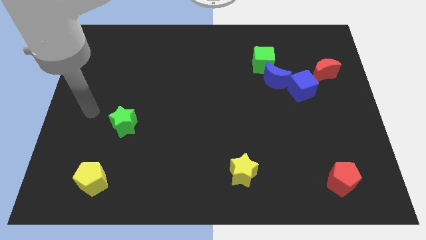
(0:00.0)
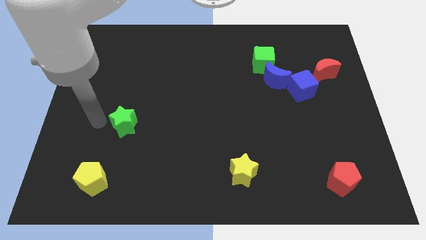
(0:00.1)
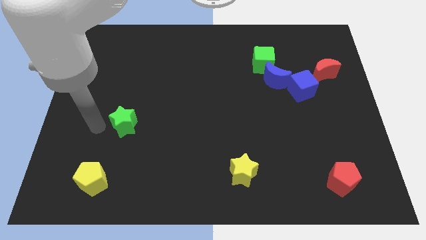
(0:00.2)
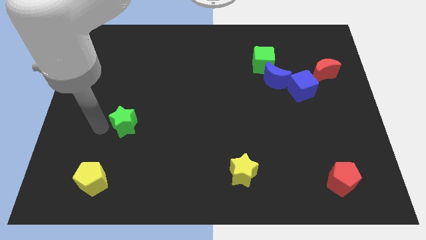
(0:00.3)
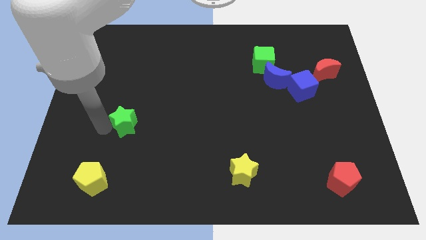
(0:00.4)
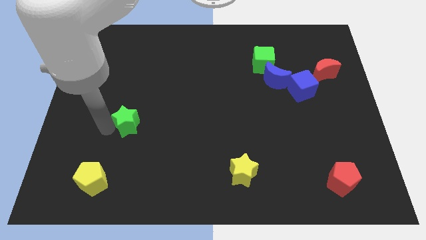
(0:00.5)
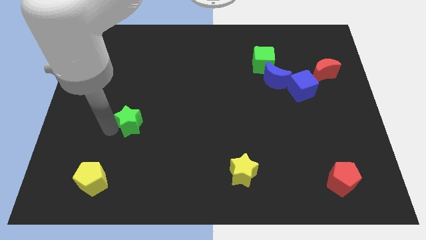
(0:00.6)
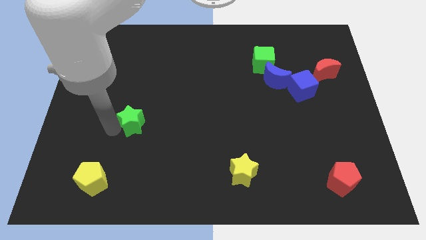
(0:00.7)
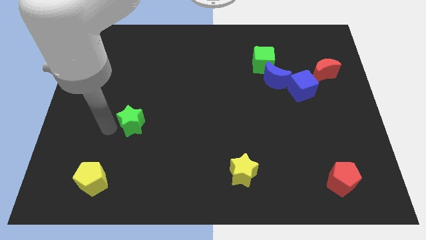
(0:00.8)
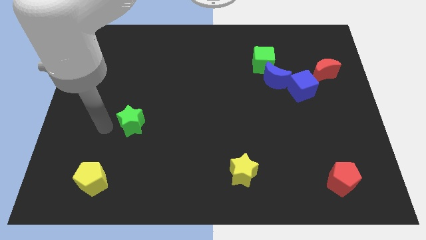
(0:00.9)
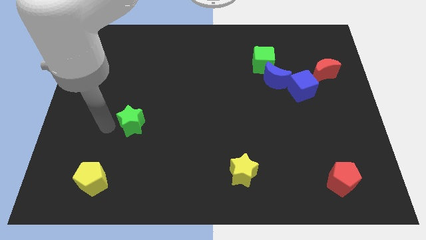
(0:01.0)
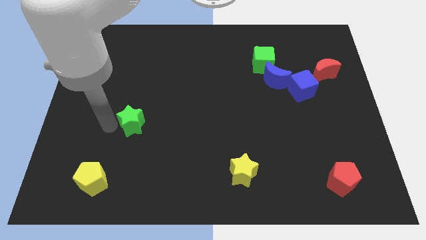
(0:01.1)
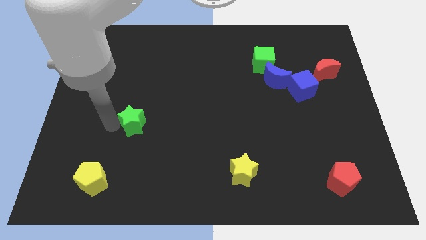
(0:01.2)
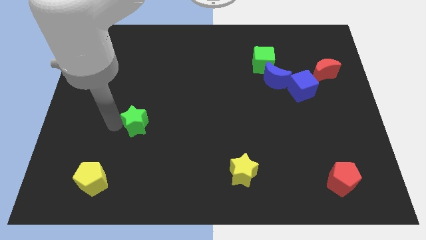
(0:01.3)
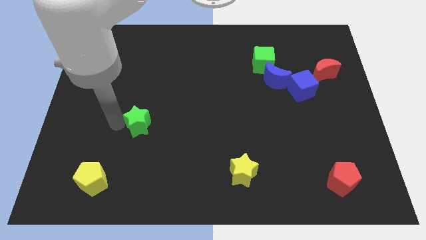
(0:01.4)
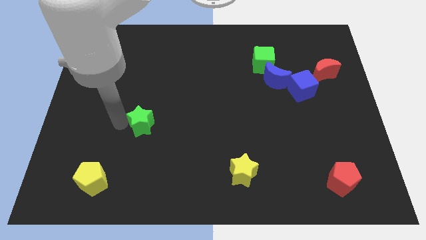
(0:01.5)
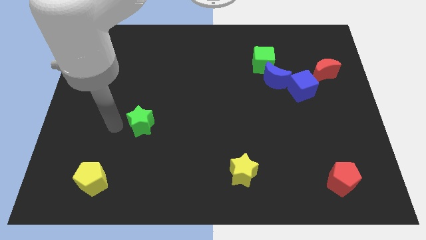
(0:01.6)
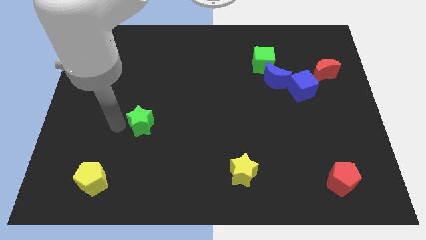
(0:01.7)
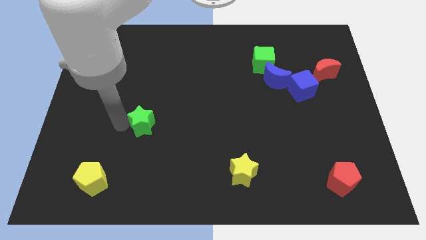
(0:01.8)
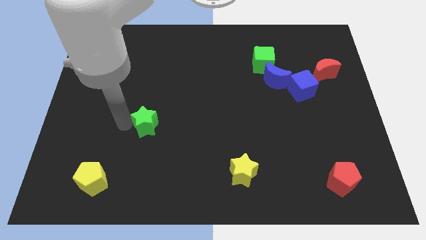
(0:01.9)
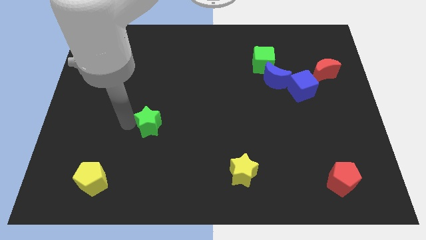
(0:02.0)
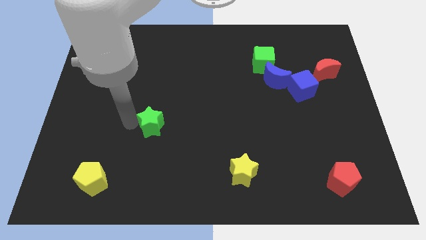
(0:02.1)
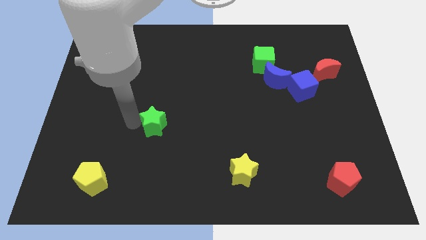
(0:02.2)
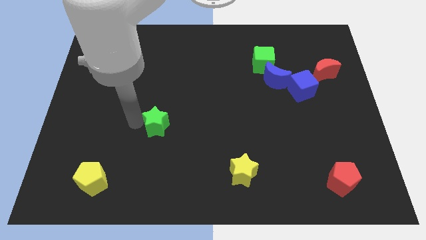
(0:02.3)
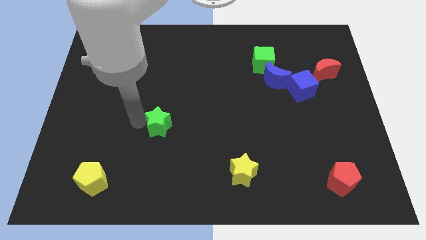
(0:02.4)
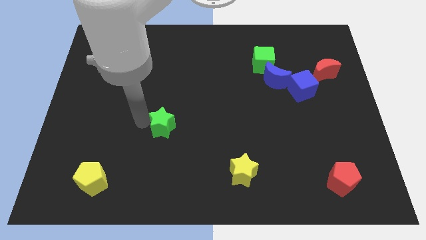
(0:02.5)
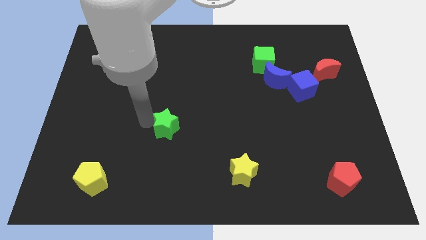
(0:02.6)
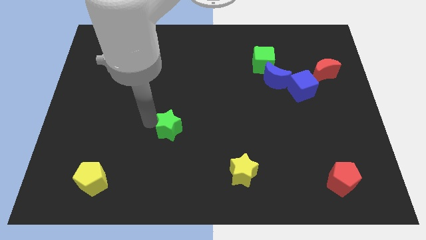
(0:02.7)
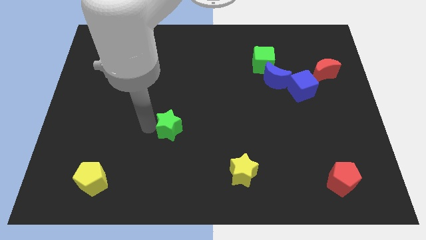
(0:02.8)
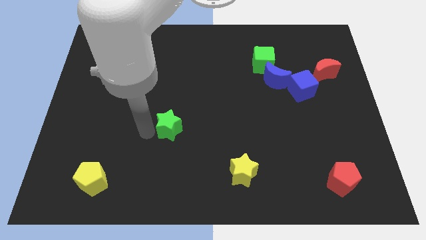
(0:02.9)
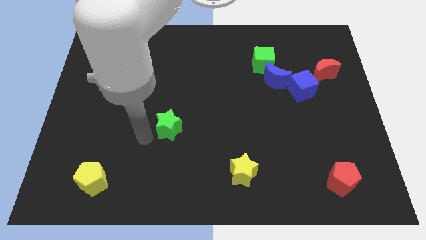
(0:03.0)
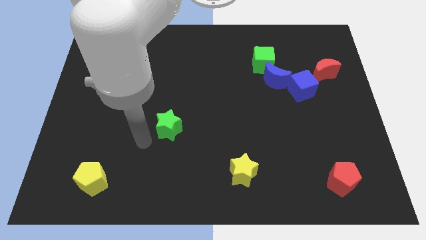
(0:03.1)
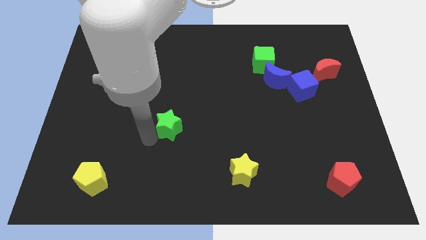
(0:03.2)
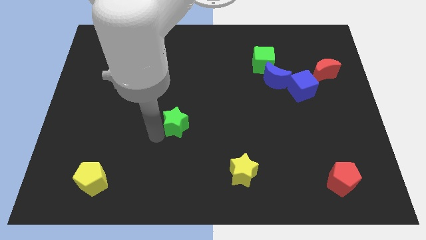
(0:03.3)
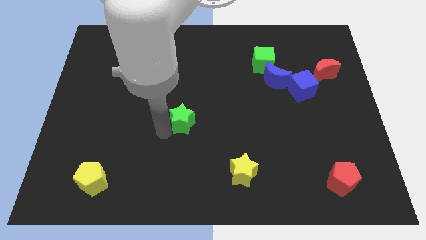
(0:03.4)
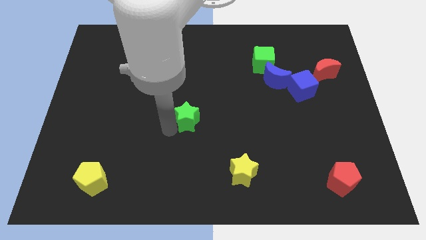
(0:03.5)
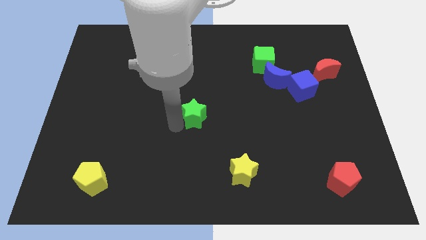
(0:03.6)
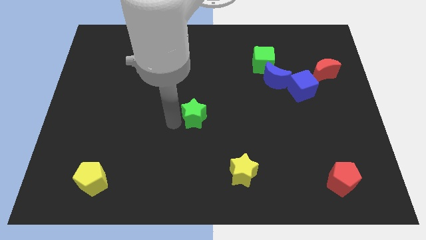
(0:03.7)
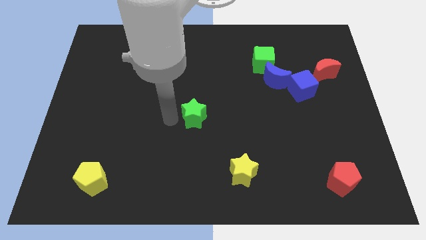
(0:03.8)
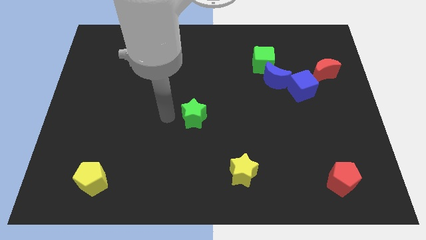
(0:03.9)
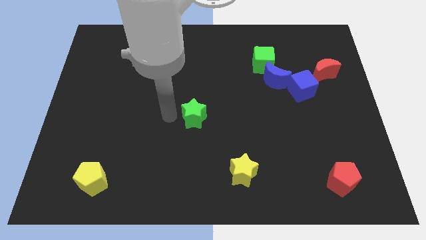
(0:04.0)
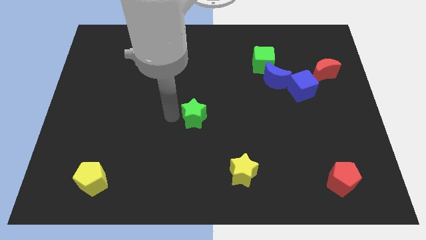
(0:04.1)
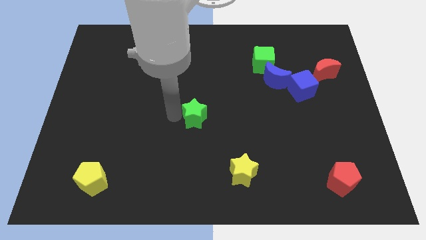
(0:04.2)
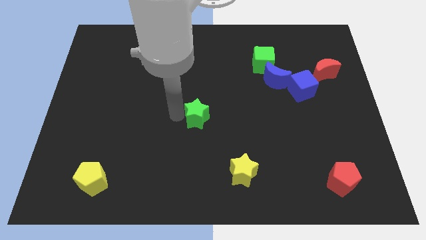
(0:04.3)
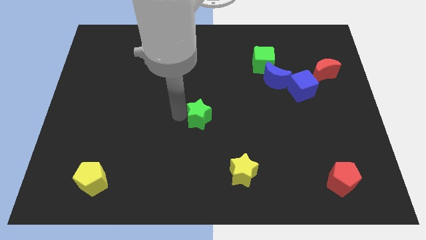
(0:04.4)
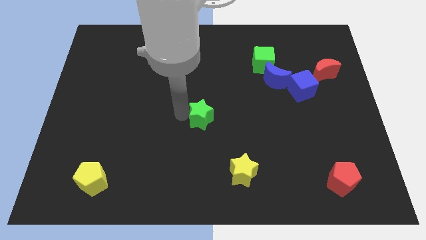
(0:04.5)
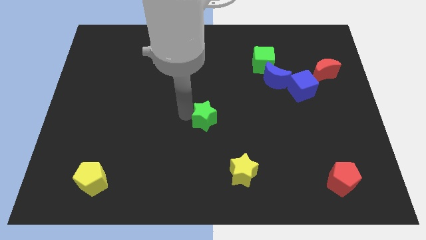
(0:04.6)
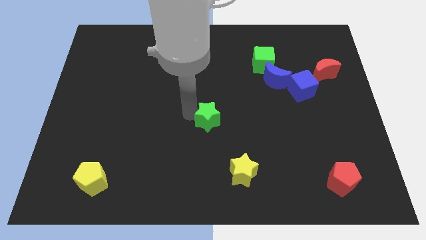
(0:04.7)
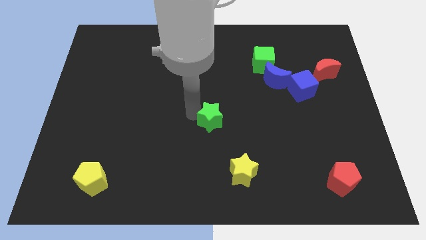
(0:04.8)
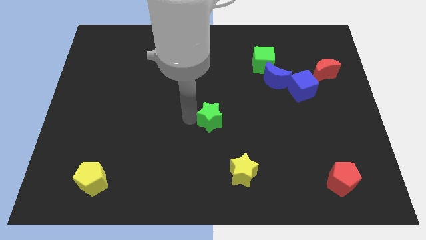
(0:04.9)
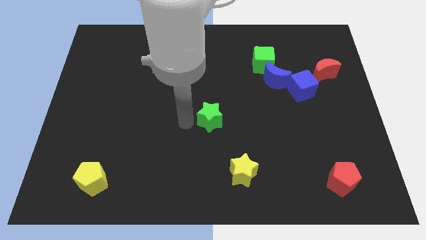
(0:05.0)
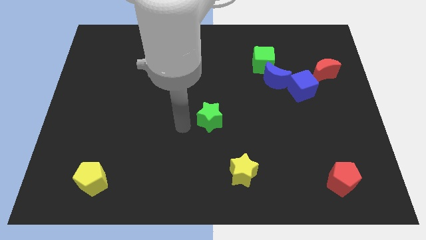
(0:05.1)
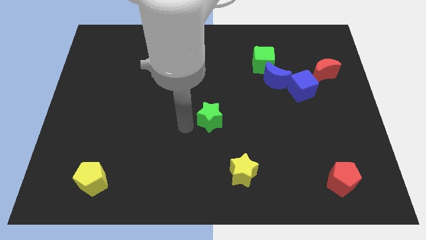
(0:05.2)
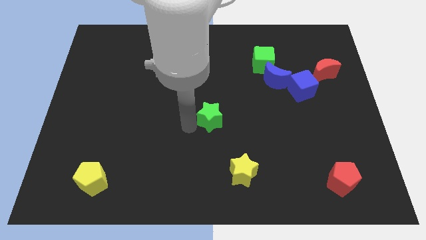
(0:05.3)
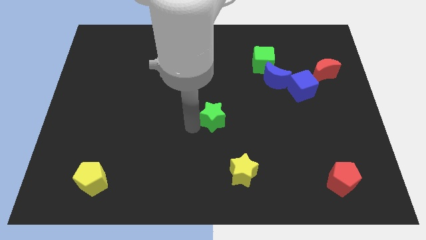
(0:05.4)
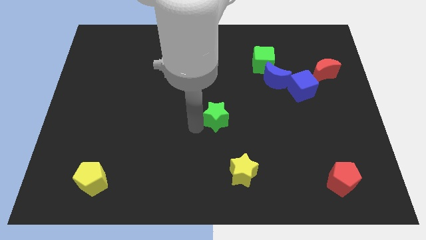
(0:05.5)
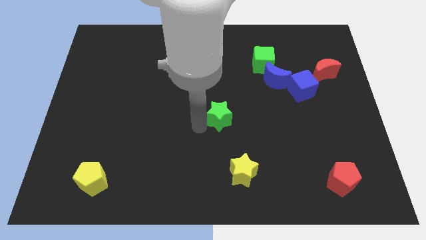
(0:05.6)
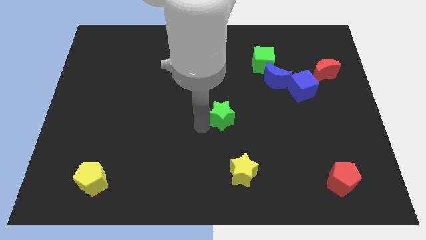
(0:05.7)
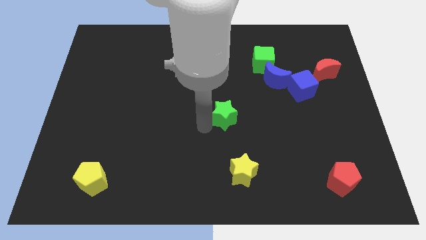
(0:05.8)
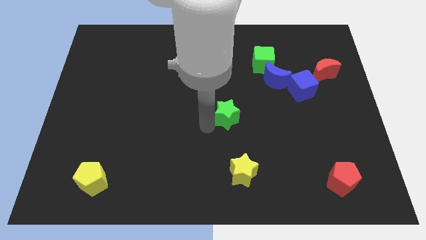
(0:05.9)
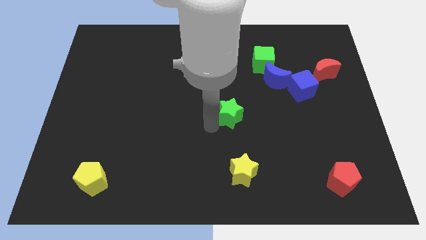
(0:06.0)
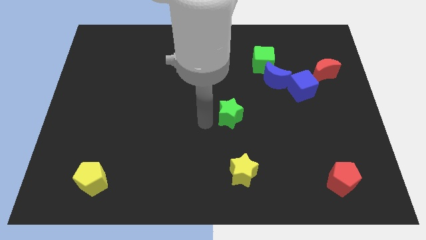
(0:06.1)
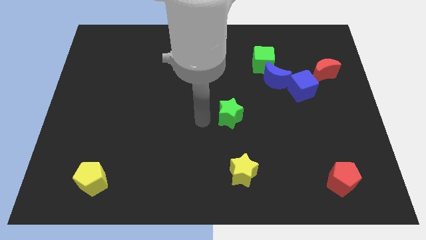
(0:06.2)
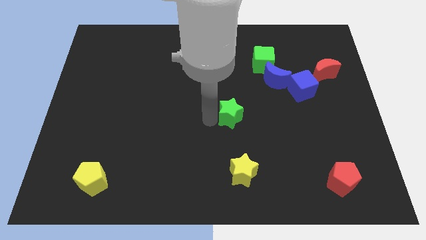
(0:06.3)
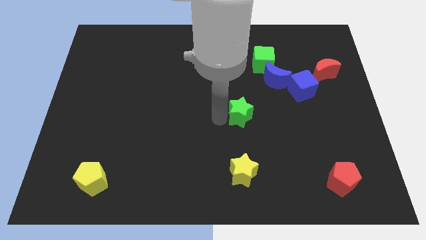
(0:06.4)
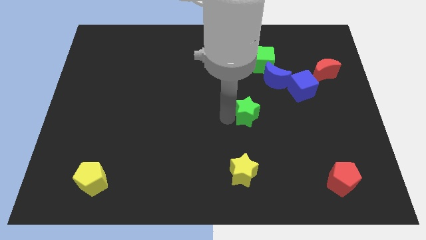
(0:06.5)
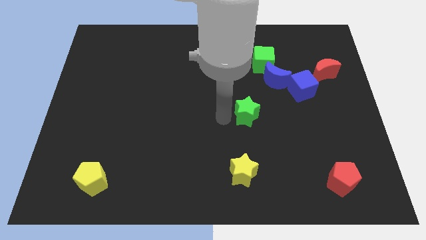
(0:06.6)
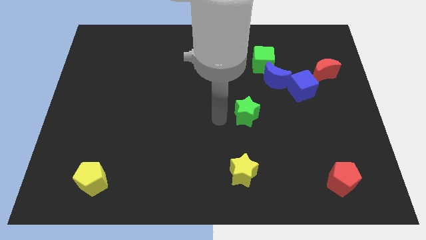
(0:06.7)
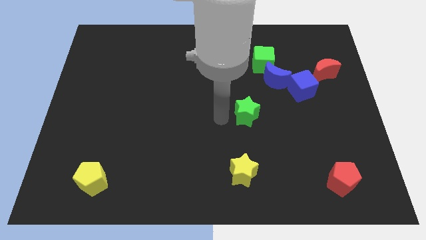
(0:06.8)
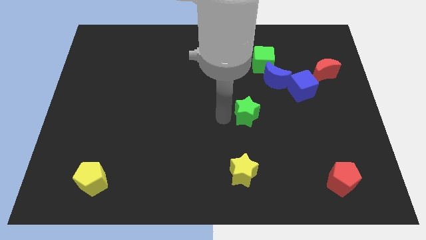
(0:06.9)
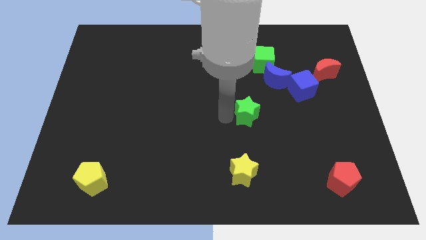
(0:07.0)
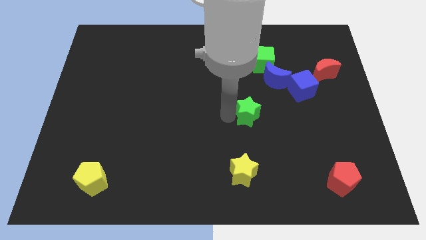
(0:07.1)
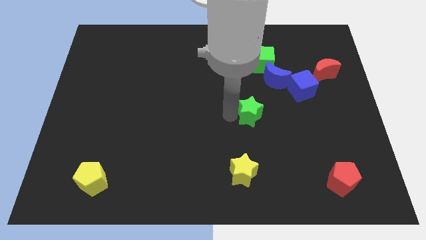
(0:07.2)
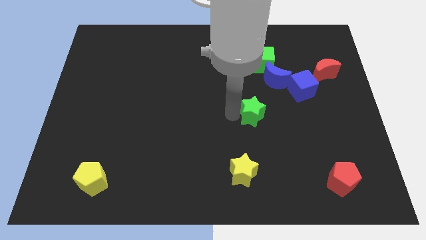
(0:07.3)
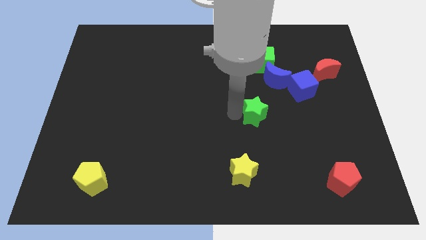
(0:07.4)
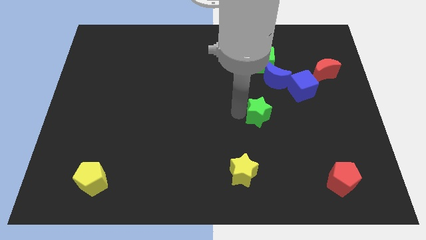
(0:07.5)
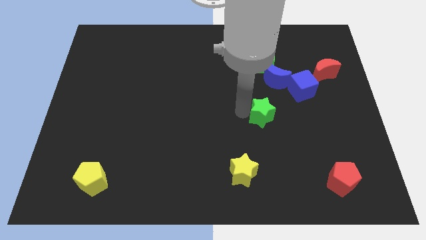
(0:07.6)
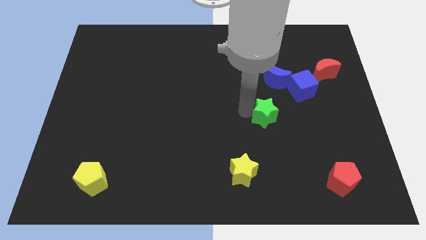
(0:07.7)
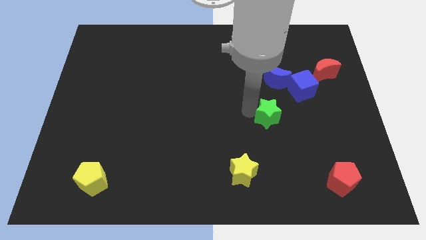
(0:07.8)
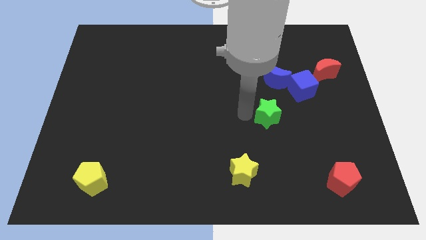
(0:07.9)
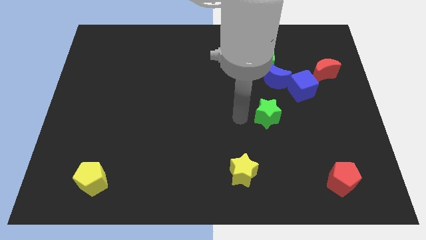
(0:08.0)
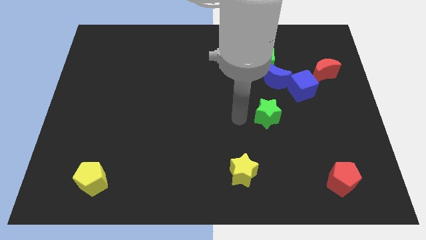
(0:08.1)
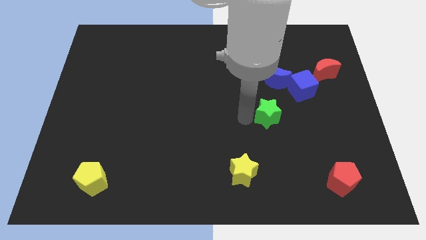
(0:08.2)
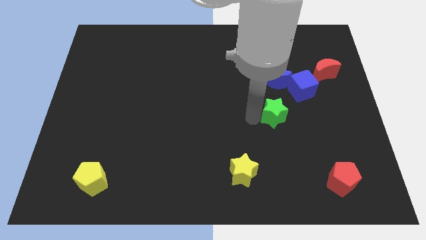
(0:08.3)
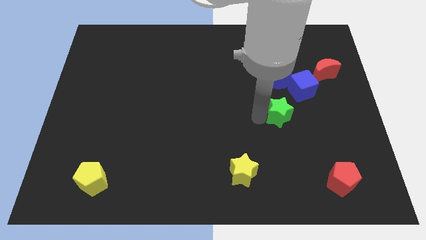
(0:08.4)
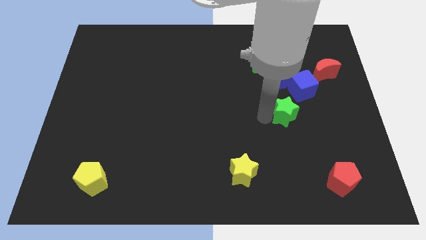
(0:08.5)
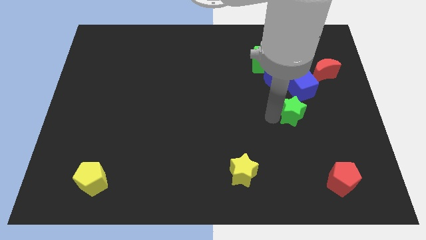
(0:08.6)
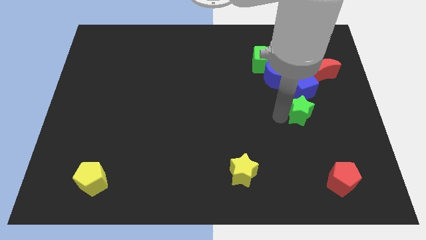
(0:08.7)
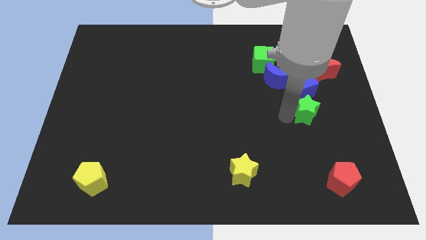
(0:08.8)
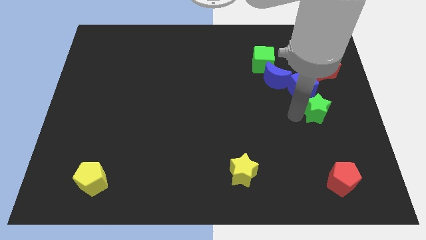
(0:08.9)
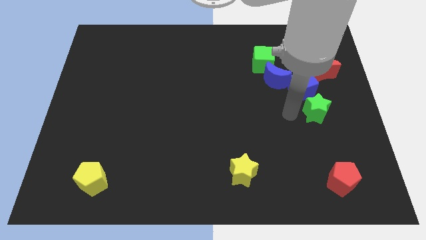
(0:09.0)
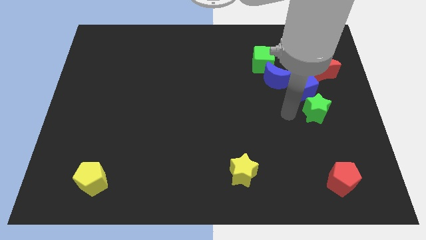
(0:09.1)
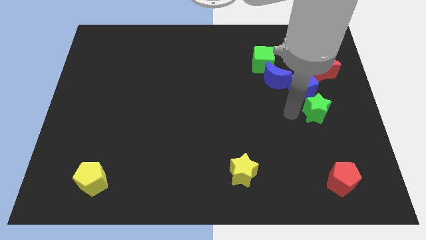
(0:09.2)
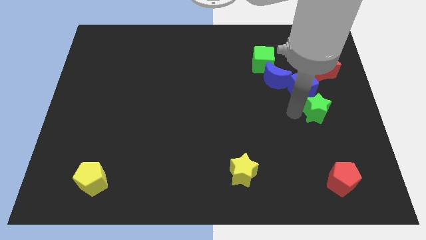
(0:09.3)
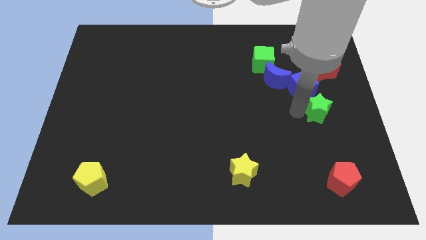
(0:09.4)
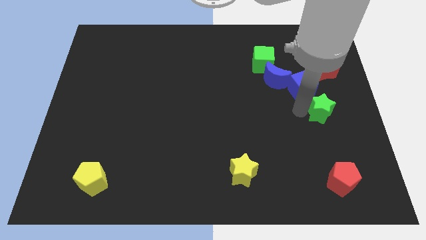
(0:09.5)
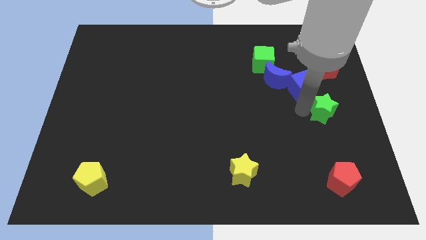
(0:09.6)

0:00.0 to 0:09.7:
push the green star to the right side of the board
